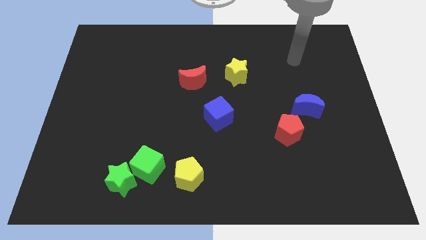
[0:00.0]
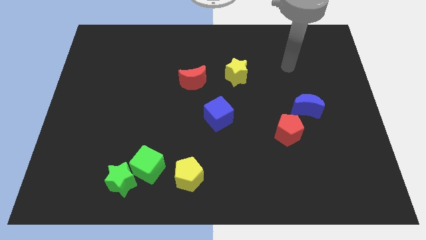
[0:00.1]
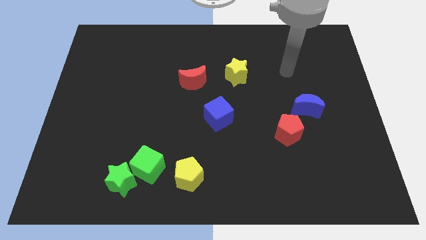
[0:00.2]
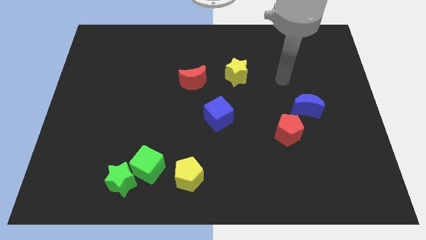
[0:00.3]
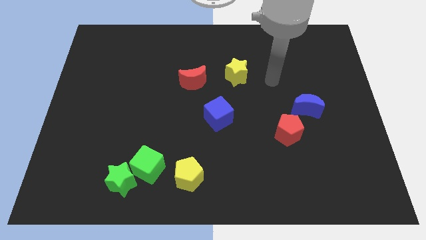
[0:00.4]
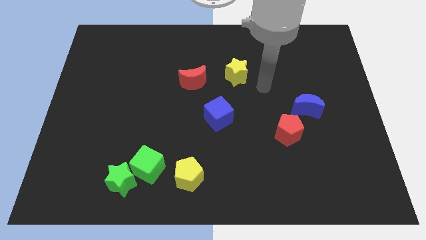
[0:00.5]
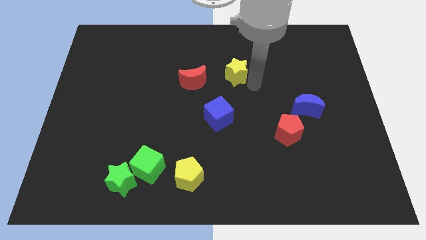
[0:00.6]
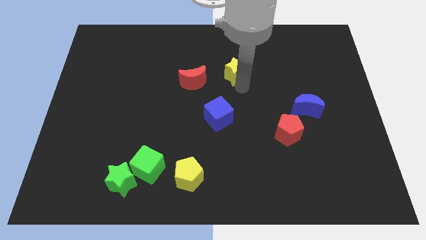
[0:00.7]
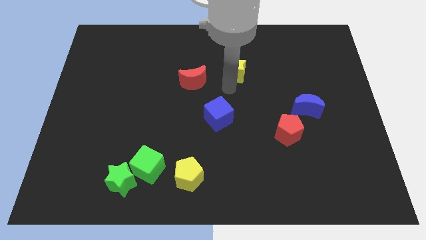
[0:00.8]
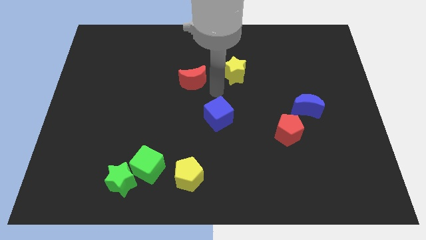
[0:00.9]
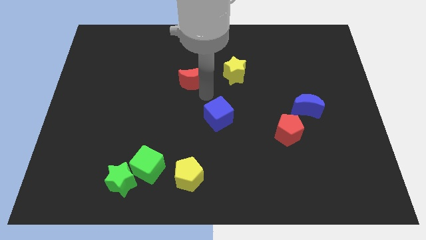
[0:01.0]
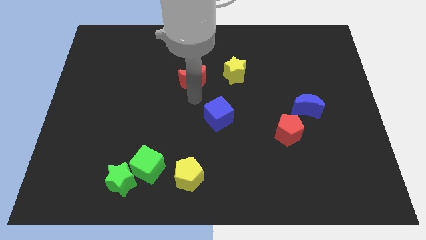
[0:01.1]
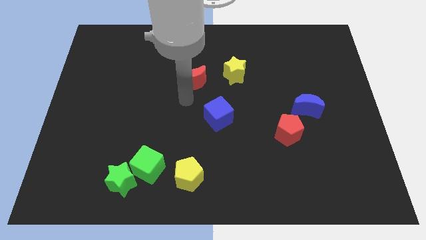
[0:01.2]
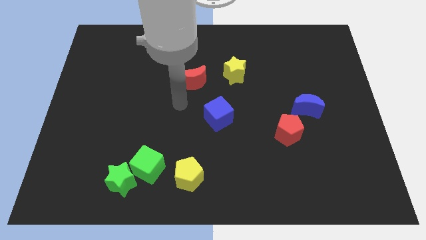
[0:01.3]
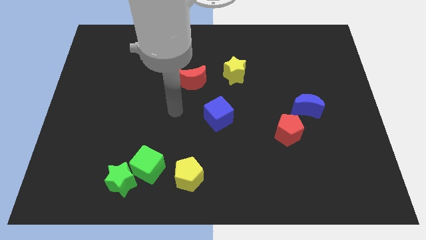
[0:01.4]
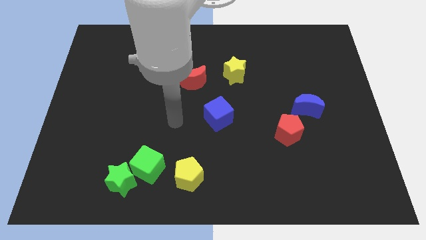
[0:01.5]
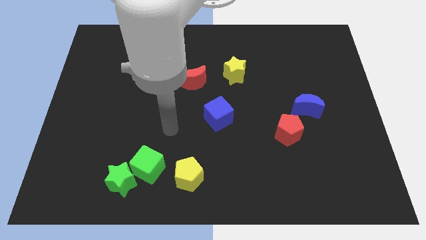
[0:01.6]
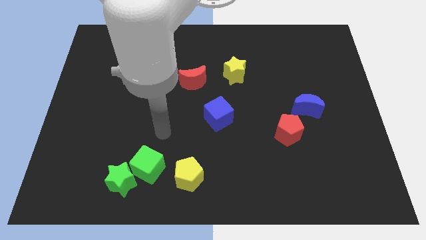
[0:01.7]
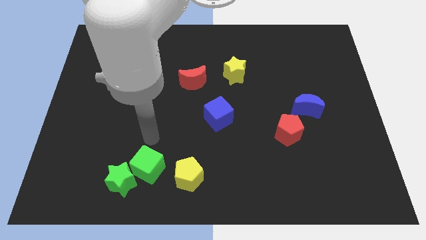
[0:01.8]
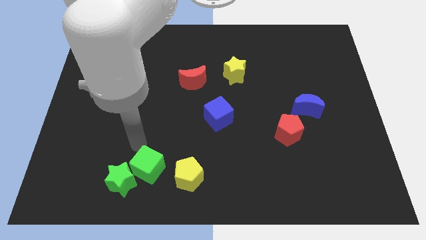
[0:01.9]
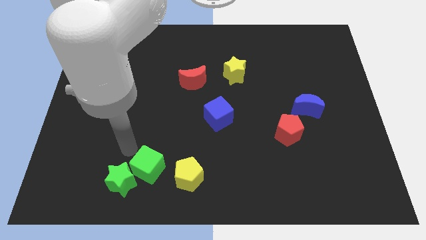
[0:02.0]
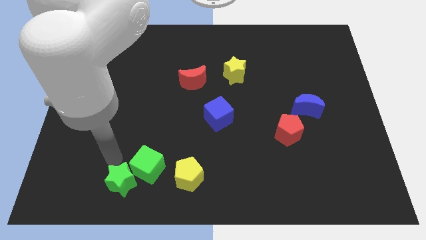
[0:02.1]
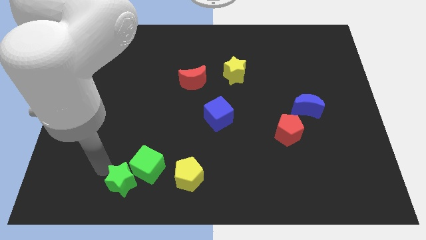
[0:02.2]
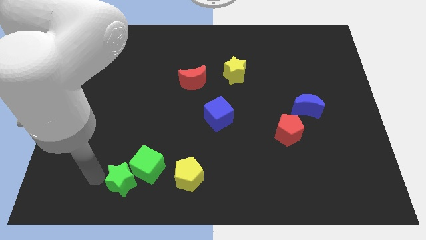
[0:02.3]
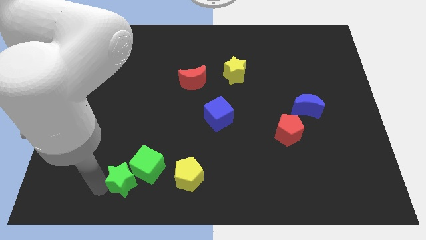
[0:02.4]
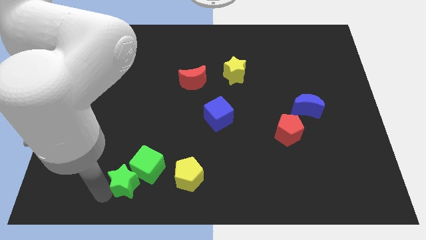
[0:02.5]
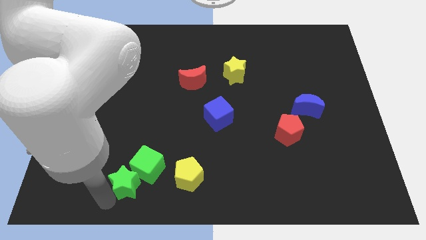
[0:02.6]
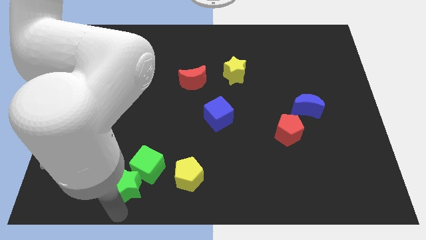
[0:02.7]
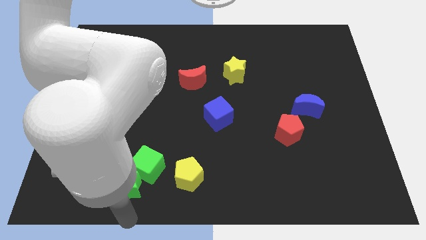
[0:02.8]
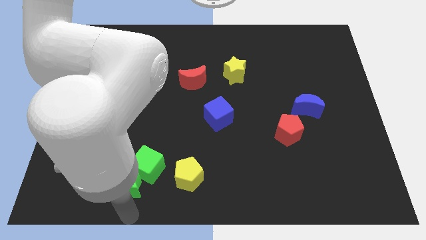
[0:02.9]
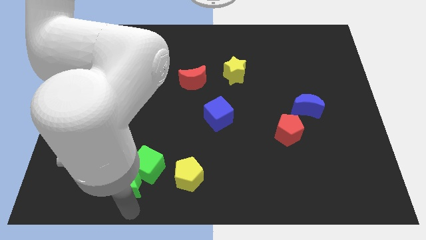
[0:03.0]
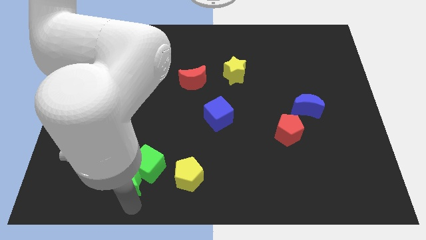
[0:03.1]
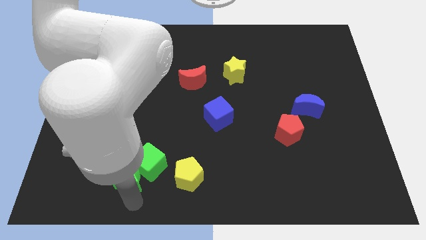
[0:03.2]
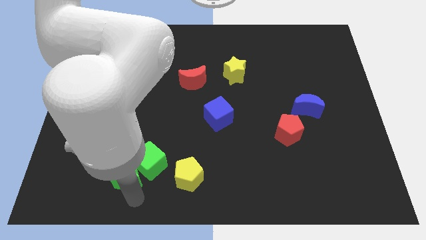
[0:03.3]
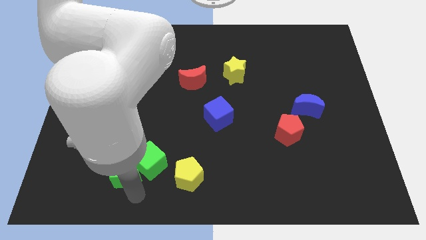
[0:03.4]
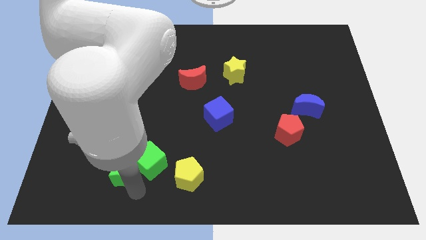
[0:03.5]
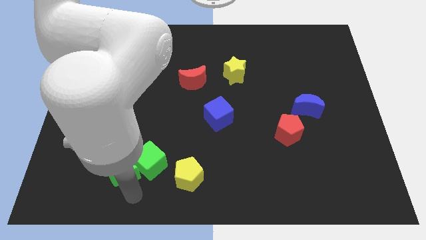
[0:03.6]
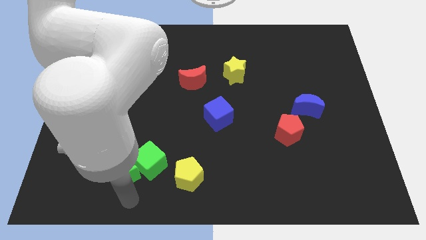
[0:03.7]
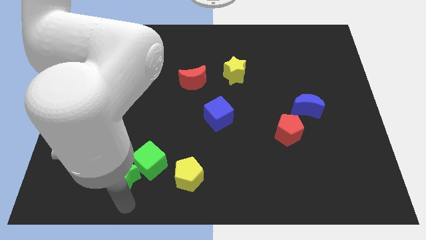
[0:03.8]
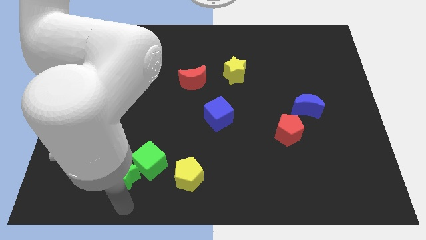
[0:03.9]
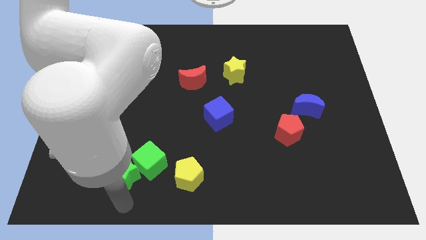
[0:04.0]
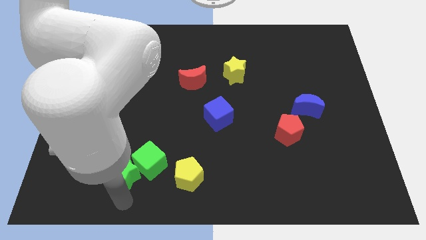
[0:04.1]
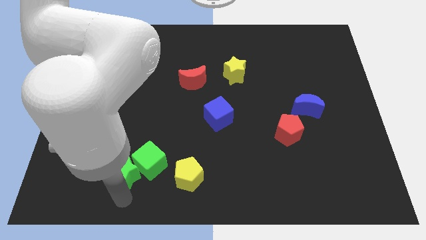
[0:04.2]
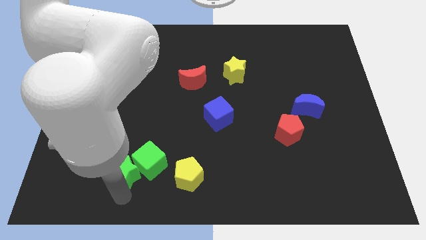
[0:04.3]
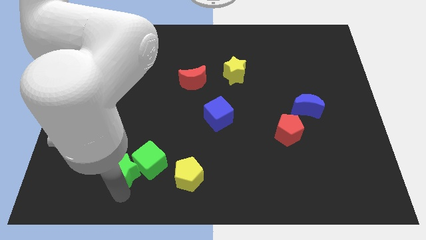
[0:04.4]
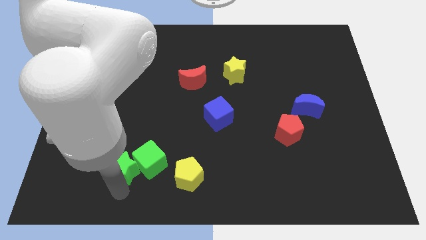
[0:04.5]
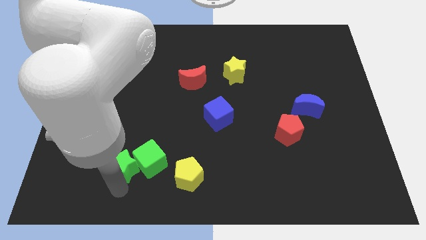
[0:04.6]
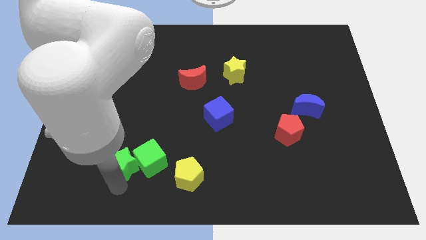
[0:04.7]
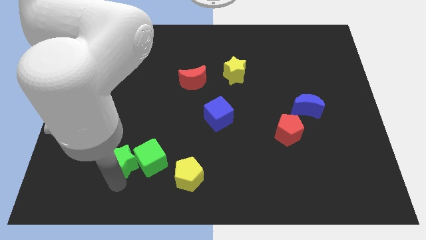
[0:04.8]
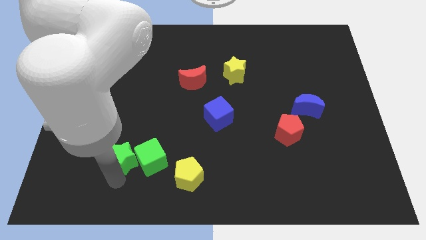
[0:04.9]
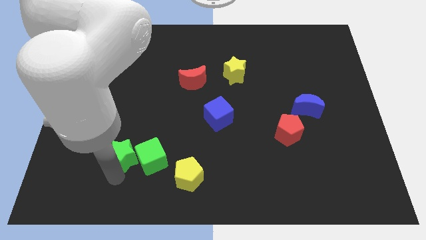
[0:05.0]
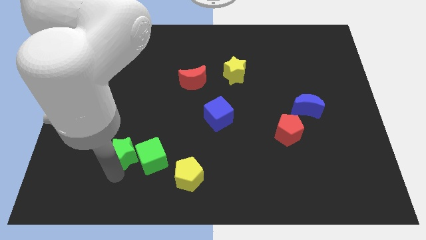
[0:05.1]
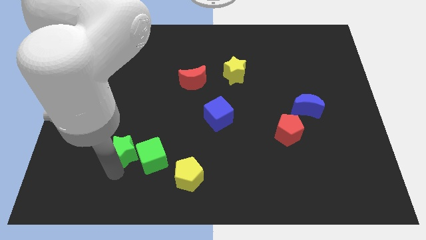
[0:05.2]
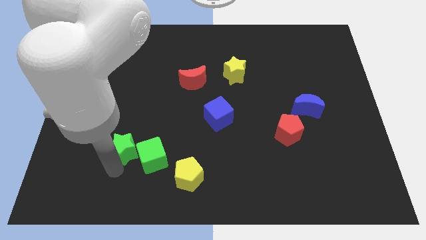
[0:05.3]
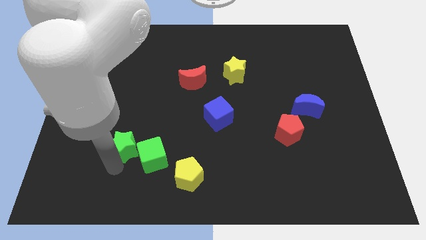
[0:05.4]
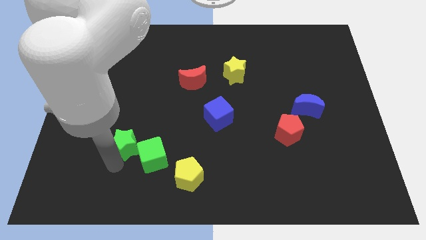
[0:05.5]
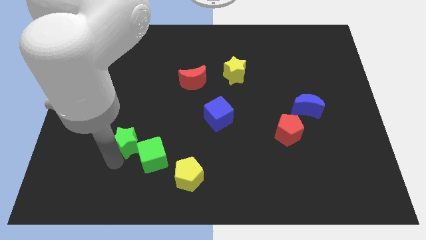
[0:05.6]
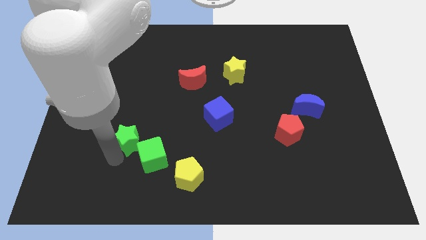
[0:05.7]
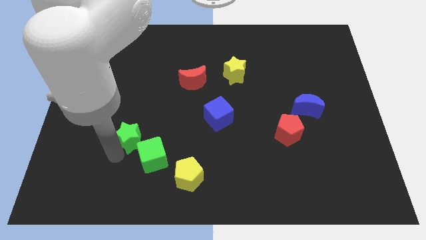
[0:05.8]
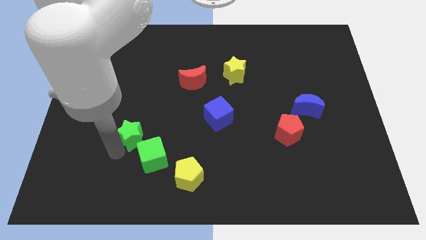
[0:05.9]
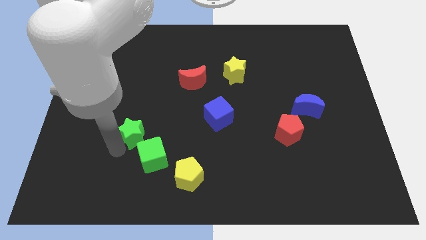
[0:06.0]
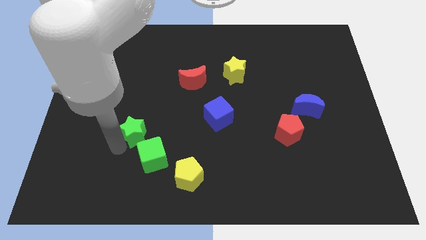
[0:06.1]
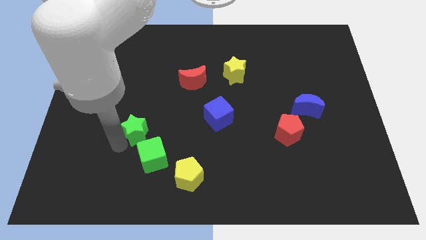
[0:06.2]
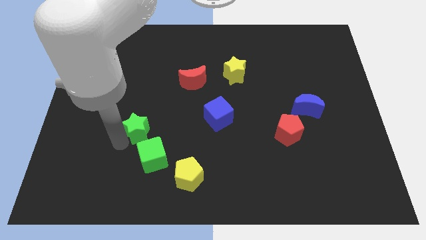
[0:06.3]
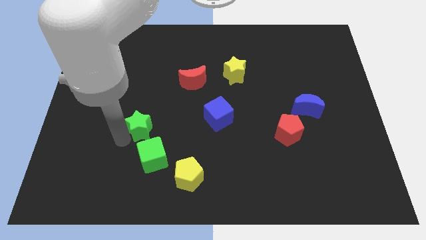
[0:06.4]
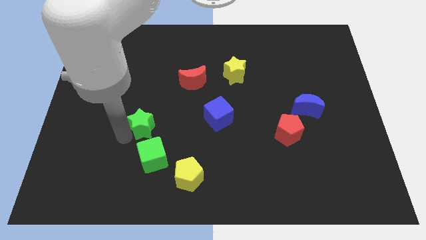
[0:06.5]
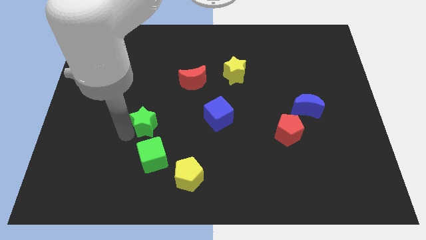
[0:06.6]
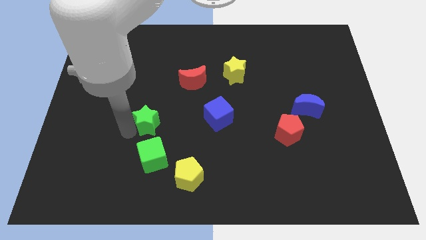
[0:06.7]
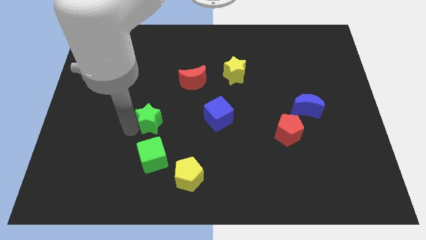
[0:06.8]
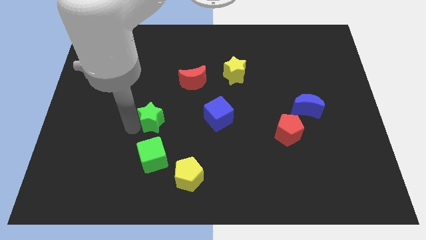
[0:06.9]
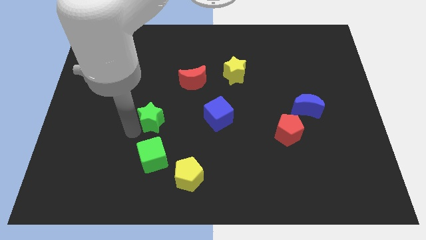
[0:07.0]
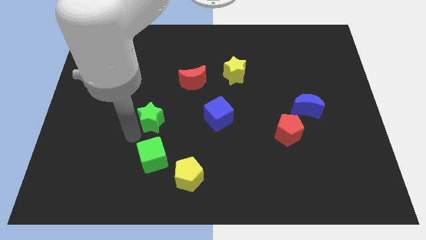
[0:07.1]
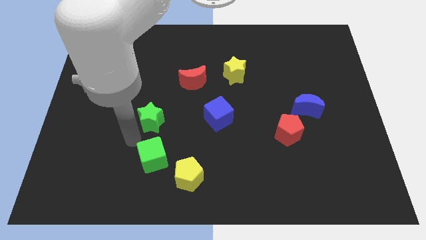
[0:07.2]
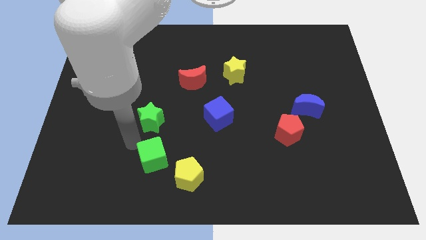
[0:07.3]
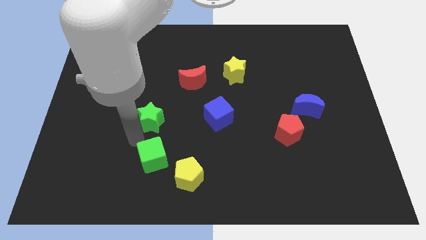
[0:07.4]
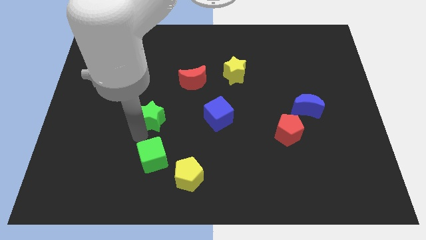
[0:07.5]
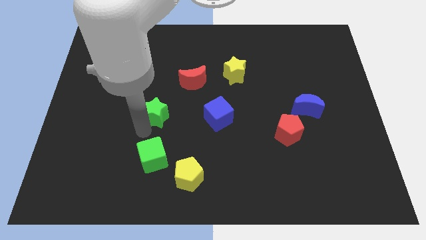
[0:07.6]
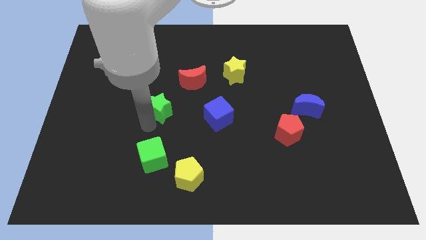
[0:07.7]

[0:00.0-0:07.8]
put the green star to the bottom left of the red moon
